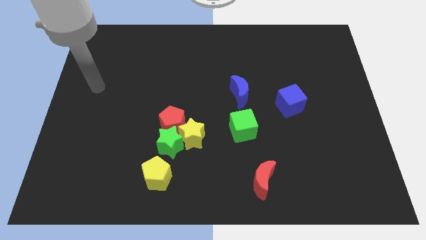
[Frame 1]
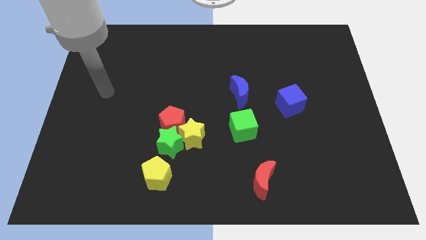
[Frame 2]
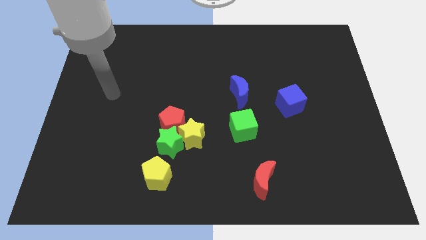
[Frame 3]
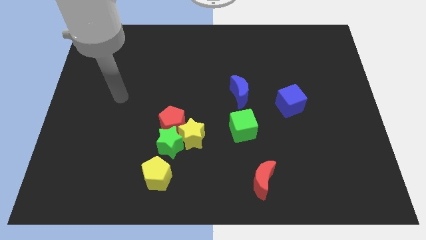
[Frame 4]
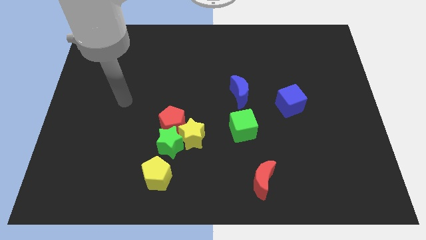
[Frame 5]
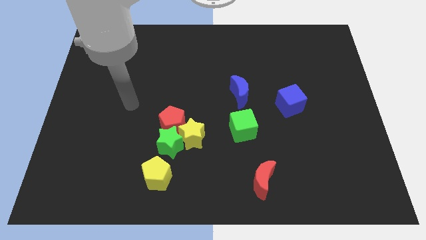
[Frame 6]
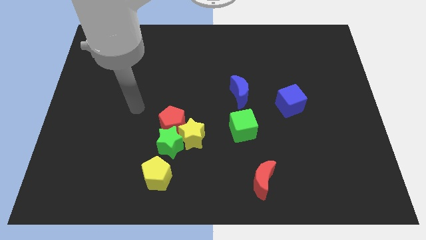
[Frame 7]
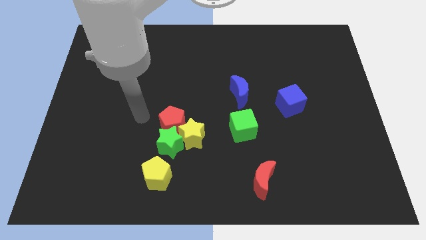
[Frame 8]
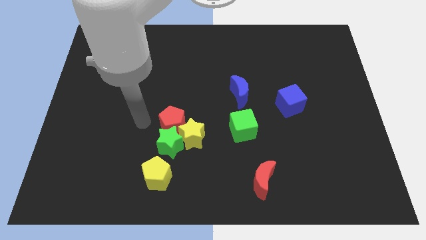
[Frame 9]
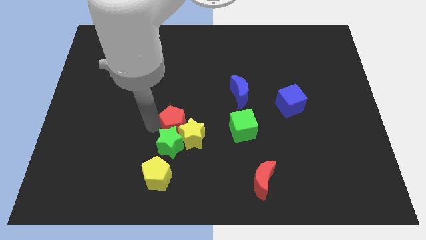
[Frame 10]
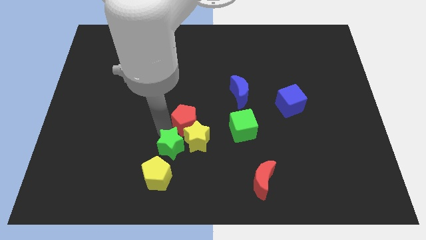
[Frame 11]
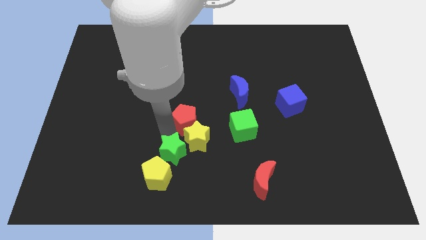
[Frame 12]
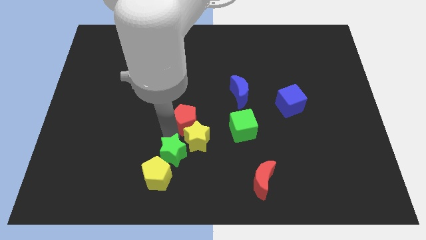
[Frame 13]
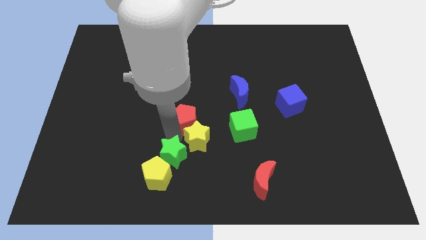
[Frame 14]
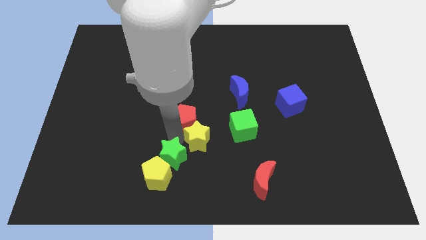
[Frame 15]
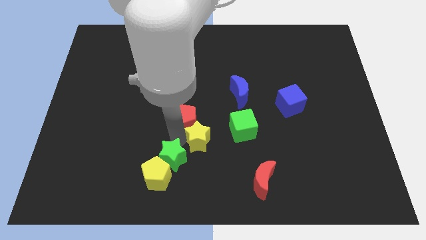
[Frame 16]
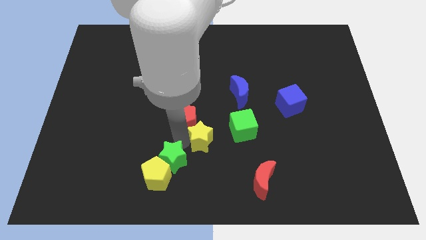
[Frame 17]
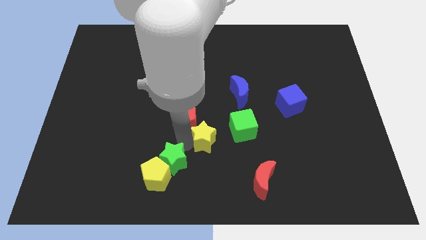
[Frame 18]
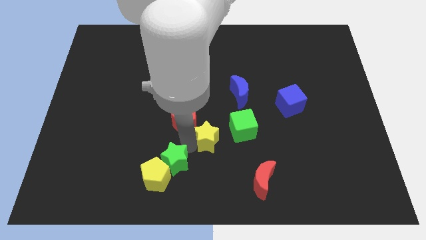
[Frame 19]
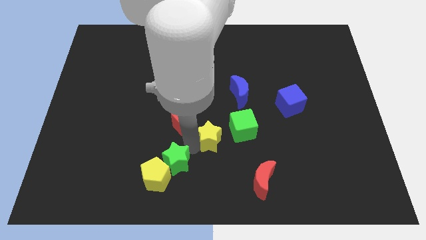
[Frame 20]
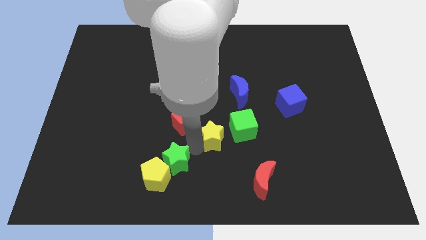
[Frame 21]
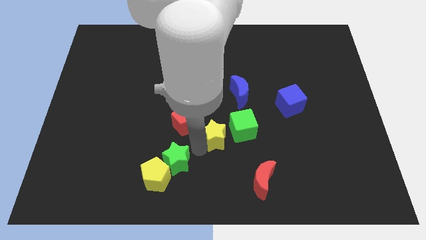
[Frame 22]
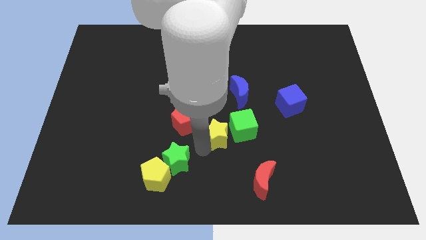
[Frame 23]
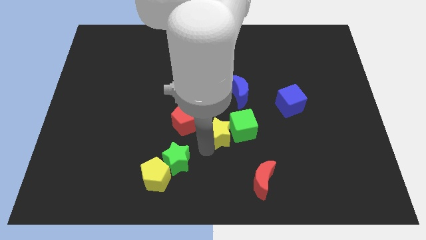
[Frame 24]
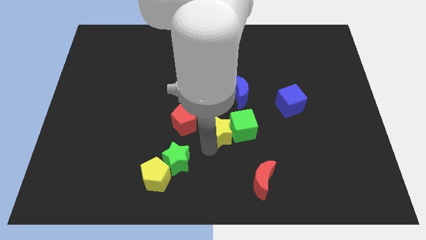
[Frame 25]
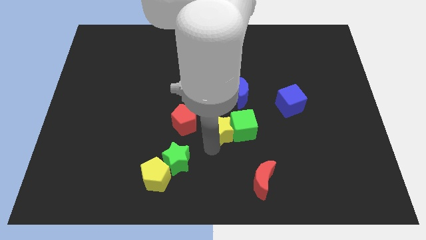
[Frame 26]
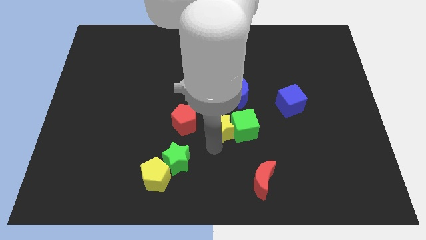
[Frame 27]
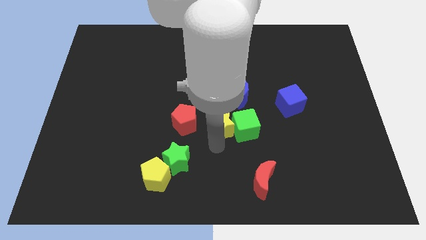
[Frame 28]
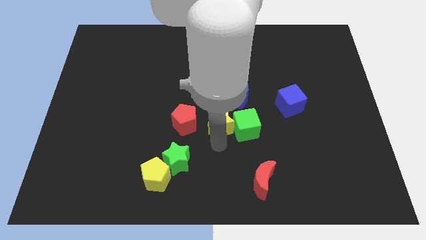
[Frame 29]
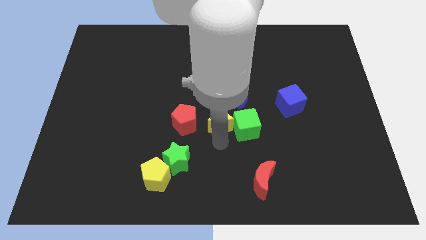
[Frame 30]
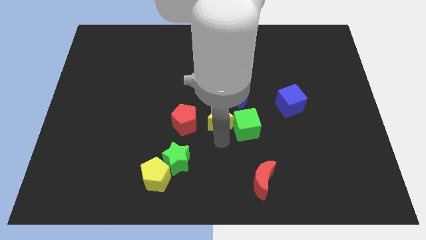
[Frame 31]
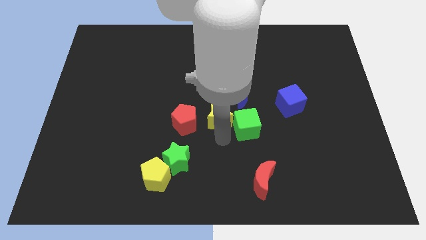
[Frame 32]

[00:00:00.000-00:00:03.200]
move the yellow star away from the green star and red pentagon

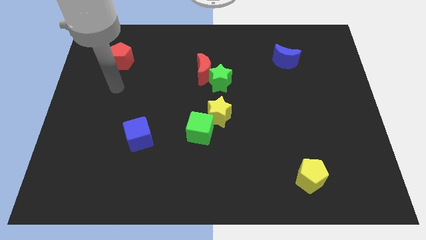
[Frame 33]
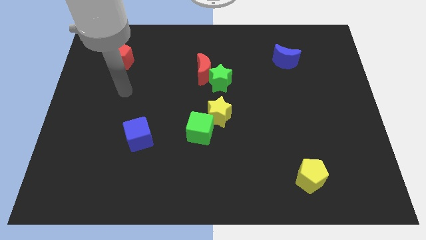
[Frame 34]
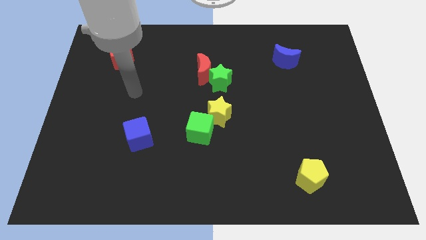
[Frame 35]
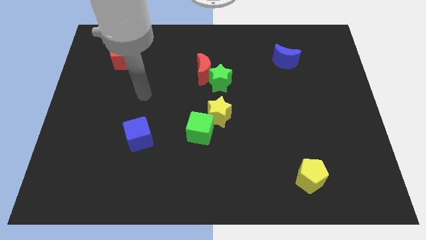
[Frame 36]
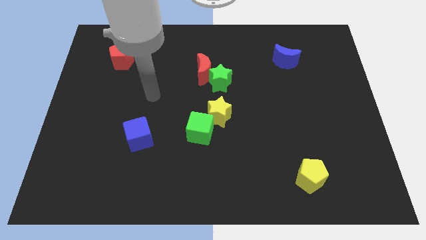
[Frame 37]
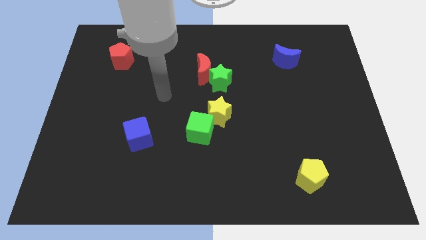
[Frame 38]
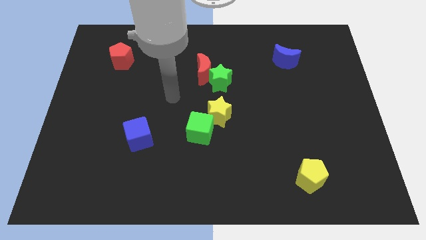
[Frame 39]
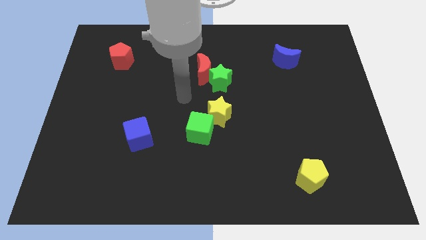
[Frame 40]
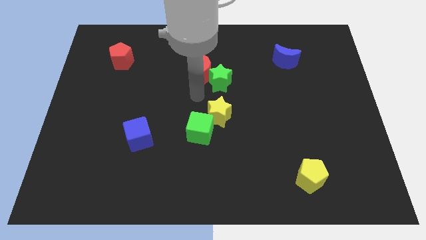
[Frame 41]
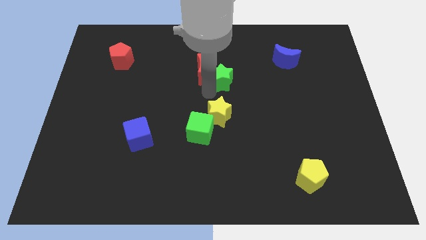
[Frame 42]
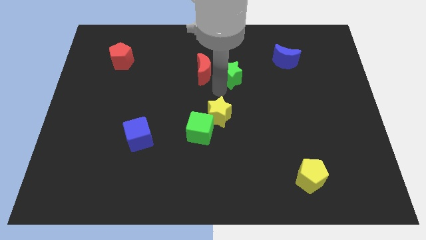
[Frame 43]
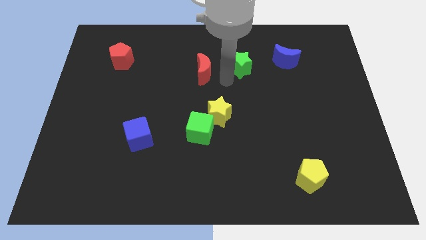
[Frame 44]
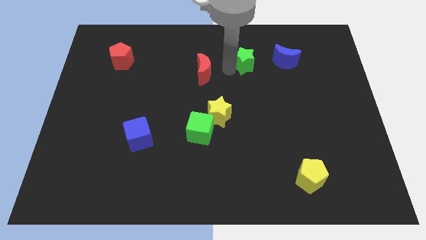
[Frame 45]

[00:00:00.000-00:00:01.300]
separate the red moon from the green star

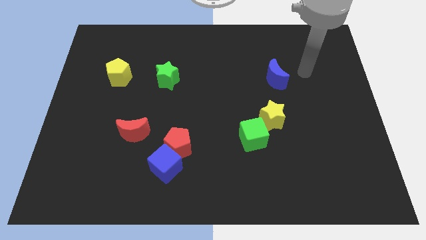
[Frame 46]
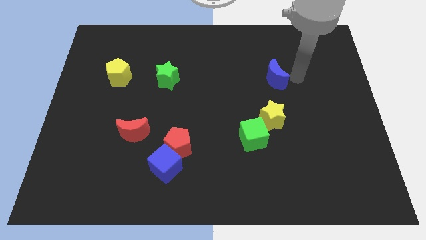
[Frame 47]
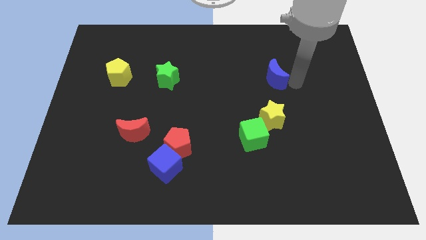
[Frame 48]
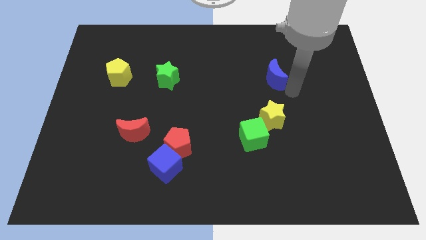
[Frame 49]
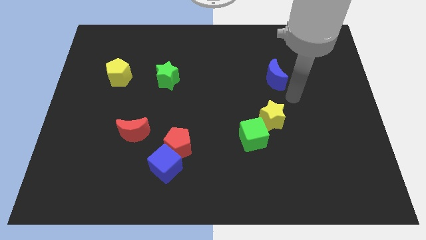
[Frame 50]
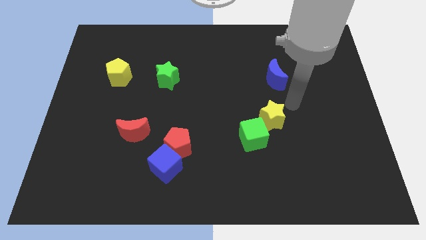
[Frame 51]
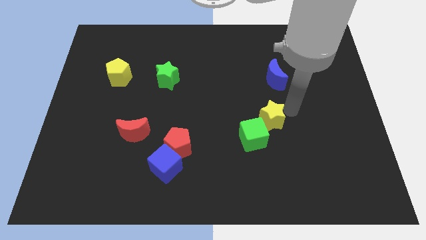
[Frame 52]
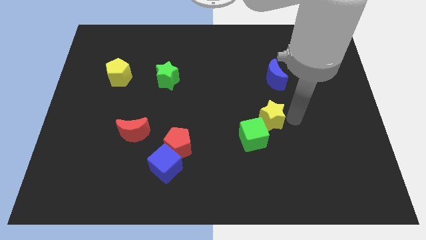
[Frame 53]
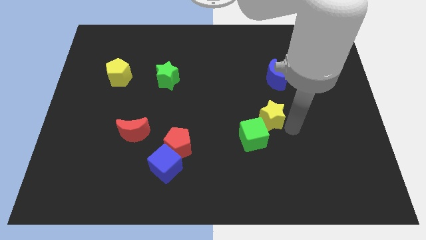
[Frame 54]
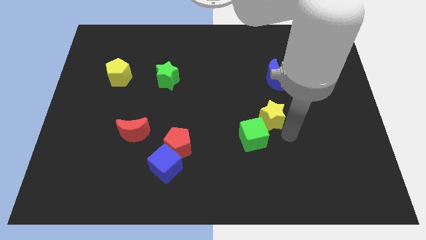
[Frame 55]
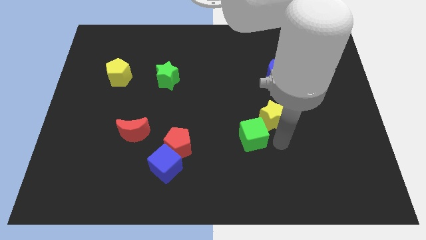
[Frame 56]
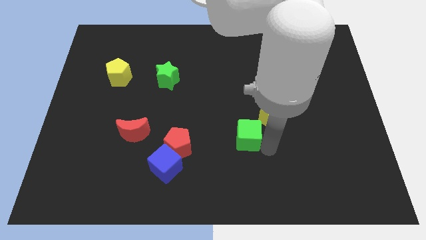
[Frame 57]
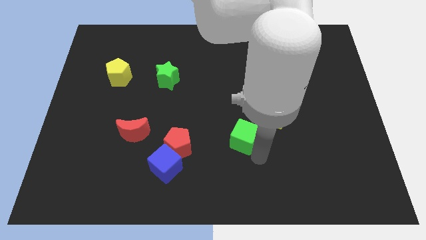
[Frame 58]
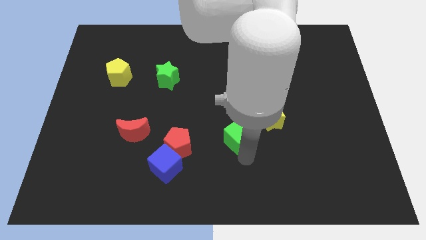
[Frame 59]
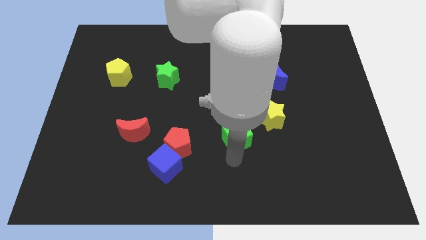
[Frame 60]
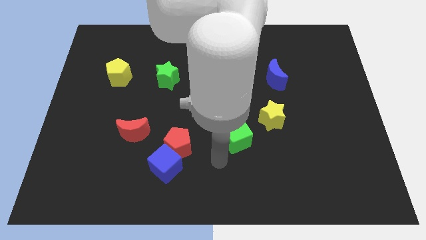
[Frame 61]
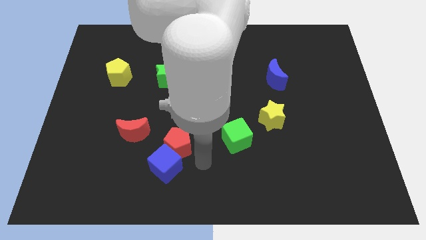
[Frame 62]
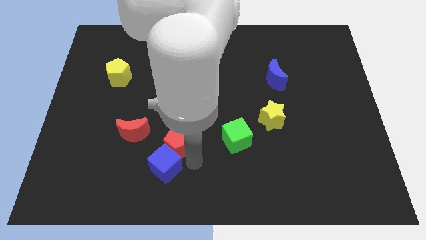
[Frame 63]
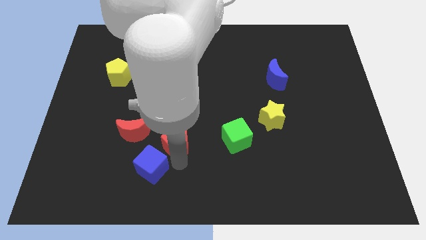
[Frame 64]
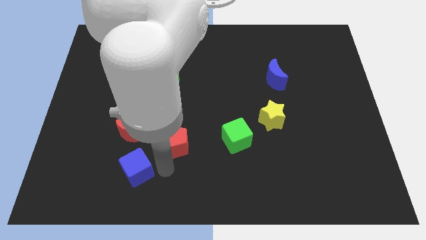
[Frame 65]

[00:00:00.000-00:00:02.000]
separate the red pentagon from the blue cube

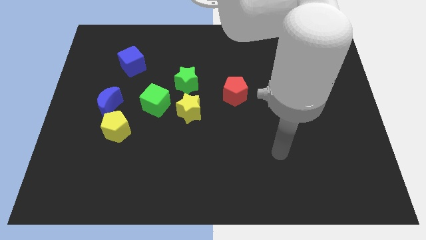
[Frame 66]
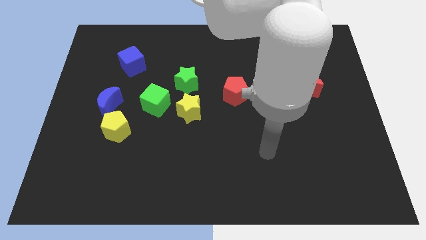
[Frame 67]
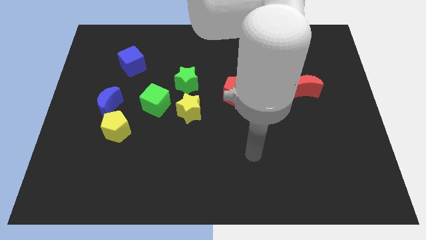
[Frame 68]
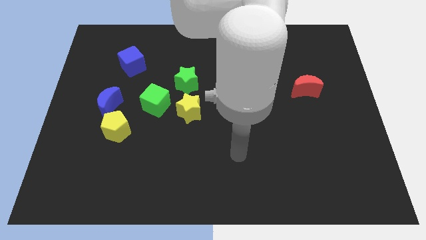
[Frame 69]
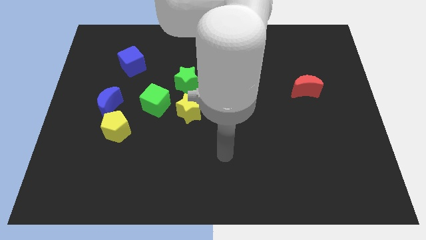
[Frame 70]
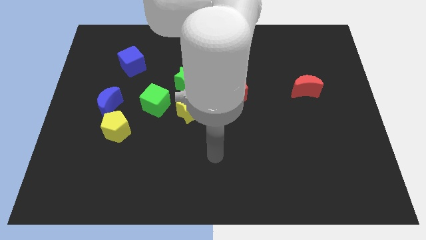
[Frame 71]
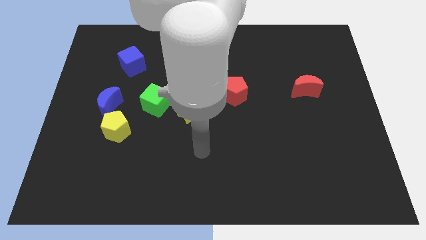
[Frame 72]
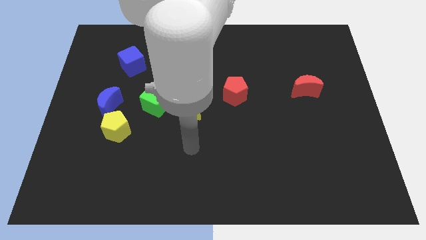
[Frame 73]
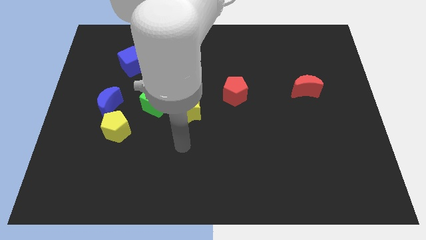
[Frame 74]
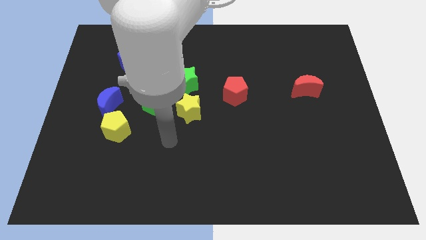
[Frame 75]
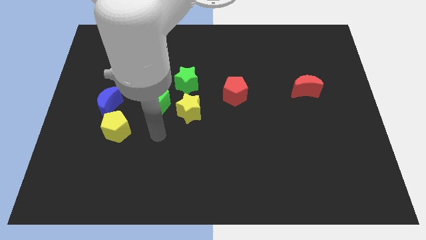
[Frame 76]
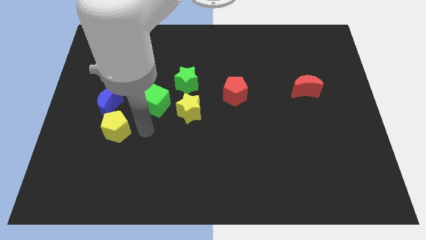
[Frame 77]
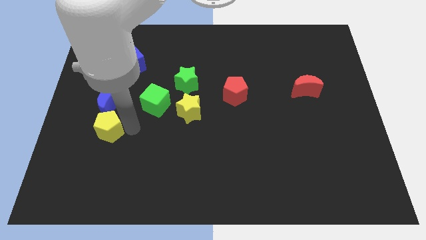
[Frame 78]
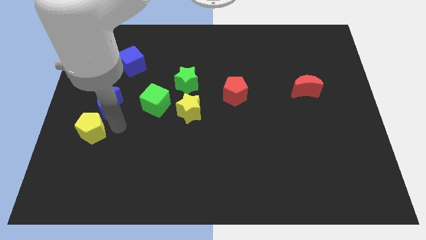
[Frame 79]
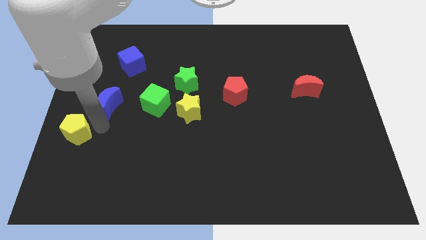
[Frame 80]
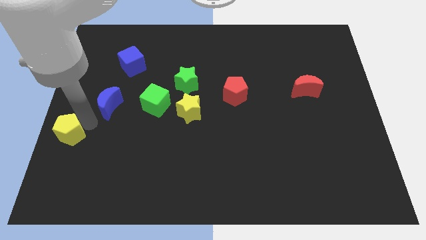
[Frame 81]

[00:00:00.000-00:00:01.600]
pull the blue moon apart from the yellow pentagon

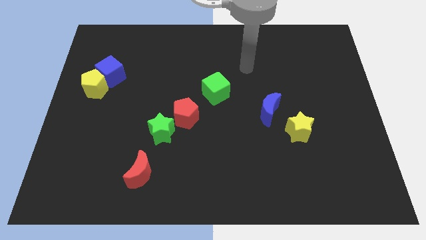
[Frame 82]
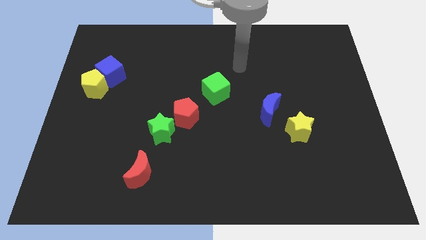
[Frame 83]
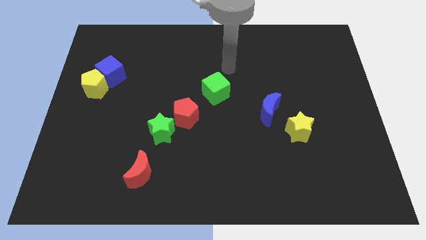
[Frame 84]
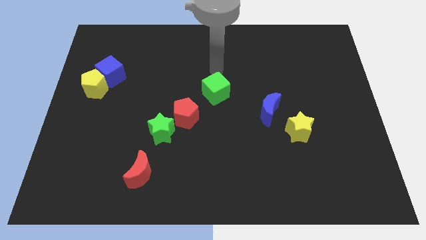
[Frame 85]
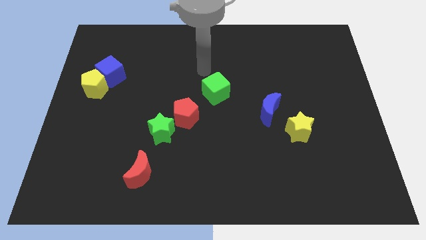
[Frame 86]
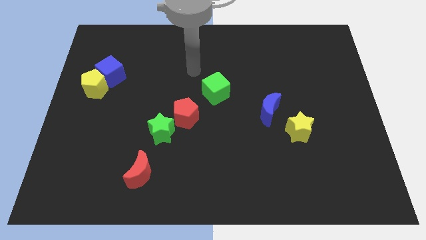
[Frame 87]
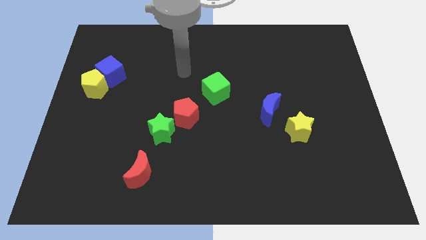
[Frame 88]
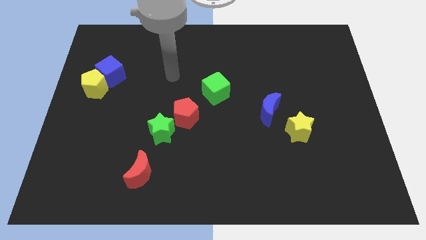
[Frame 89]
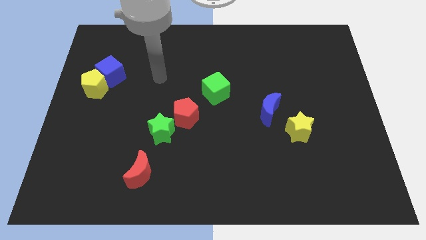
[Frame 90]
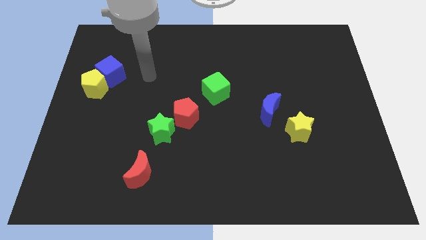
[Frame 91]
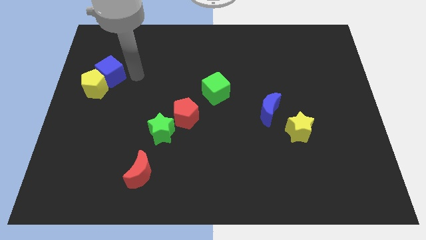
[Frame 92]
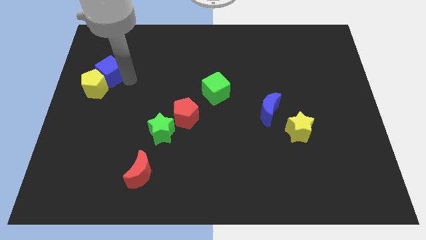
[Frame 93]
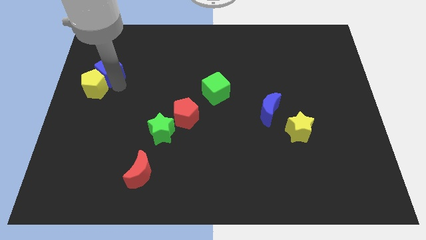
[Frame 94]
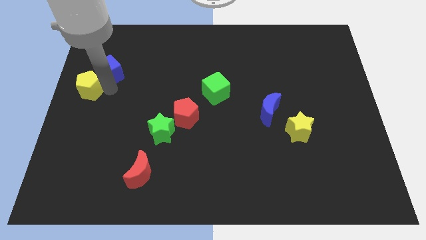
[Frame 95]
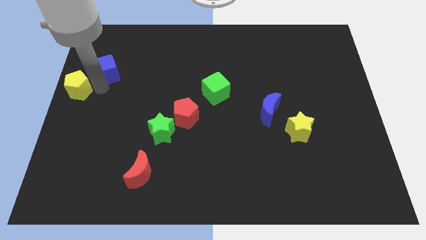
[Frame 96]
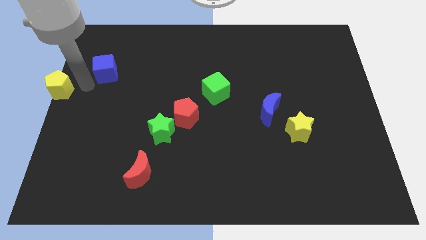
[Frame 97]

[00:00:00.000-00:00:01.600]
pull the blue cube apart from the yellow pentagon
